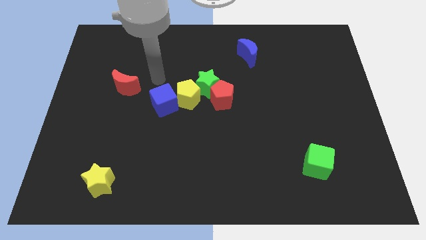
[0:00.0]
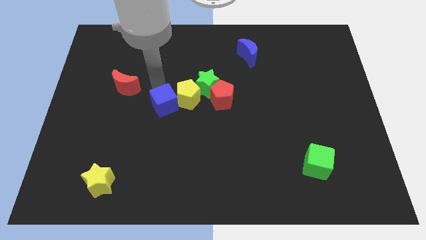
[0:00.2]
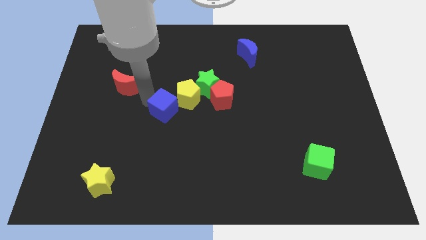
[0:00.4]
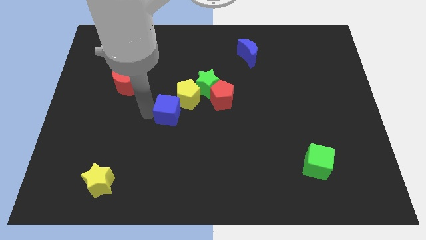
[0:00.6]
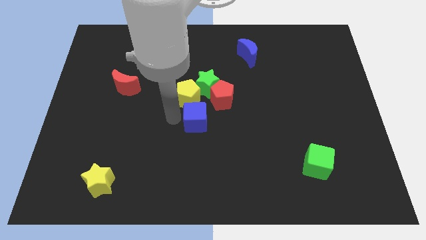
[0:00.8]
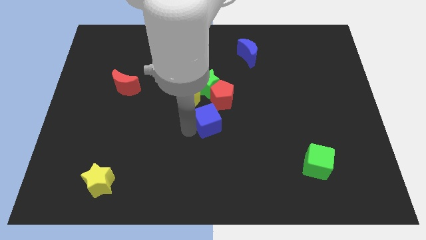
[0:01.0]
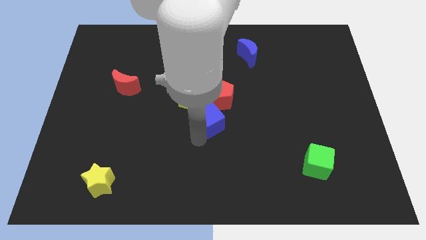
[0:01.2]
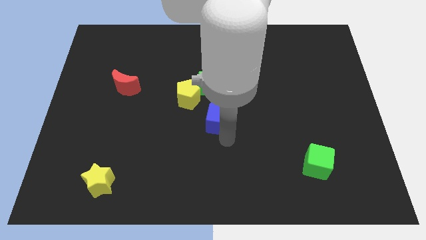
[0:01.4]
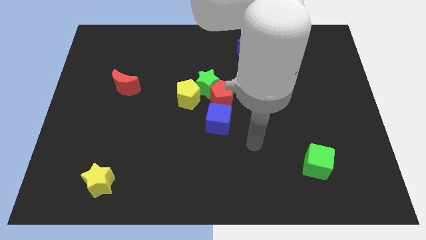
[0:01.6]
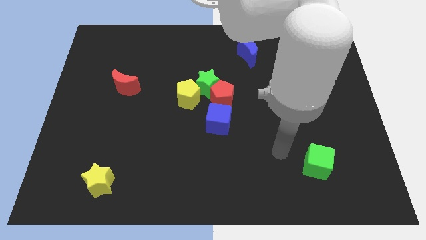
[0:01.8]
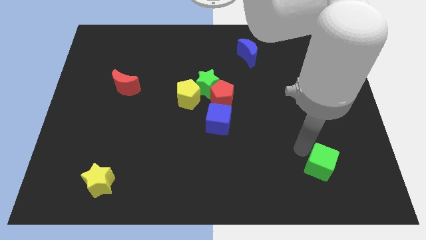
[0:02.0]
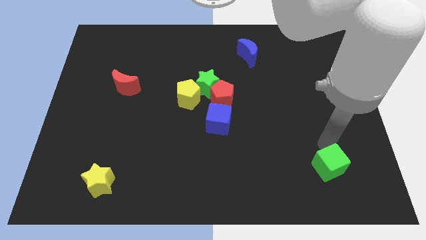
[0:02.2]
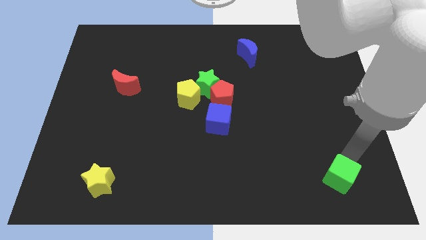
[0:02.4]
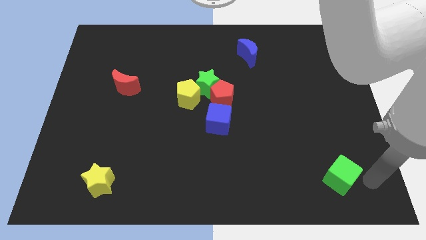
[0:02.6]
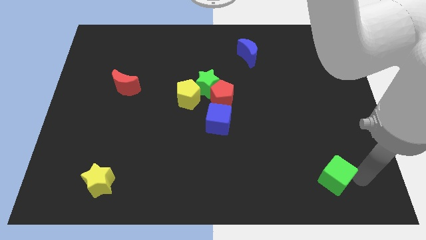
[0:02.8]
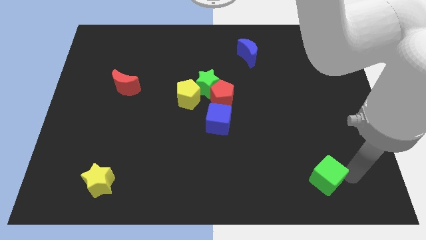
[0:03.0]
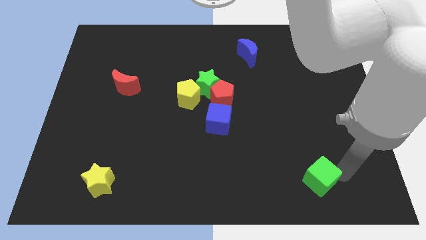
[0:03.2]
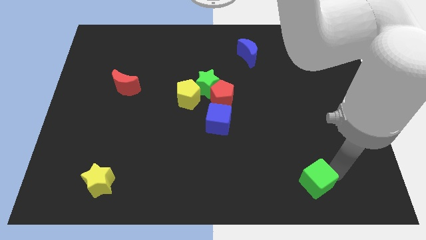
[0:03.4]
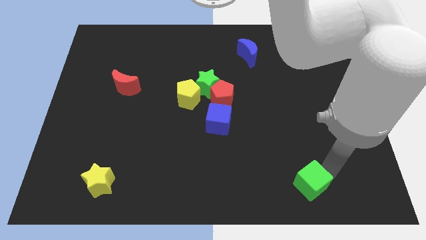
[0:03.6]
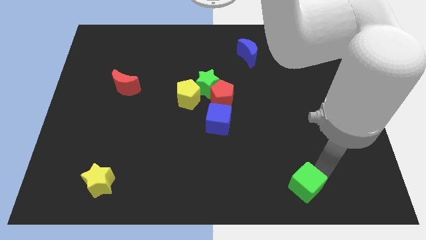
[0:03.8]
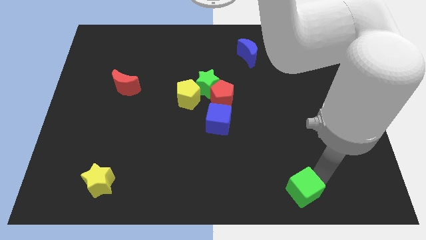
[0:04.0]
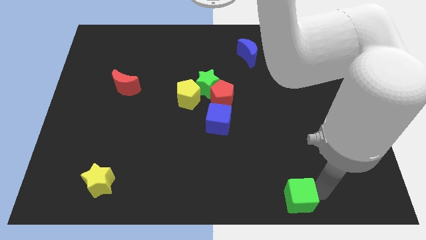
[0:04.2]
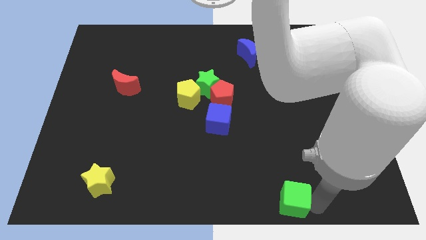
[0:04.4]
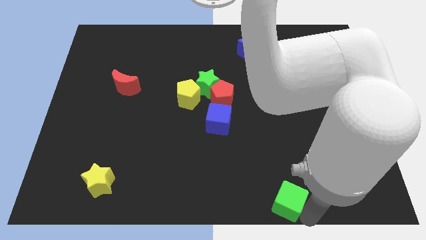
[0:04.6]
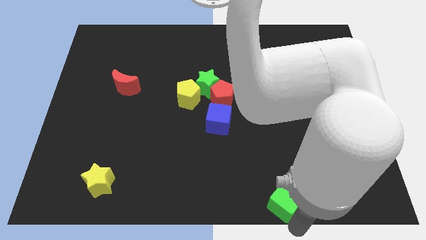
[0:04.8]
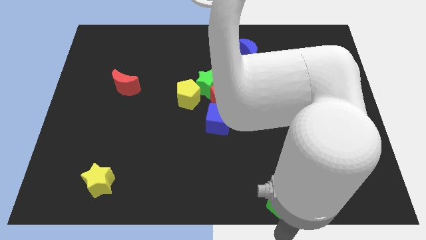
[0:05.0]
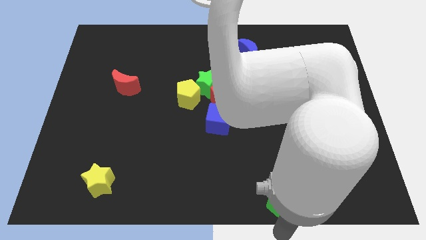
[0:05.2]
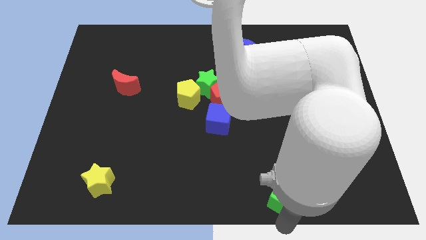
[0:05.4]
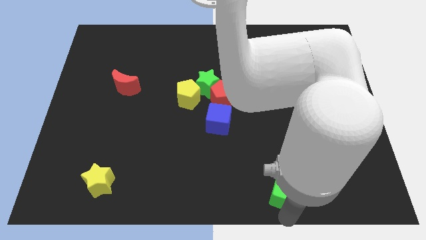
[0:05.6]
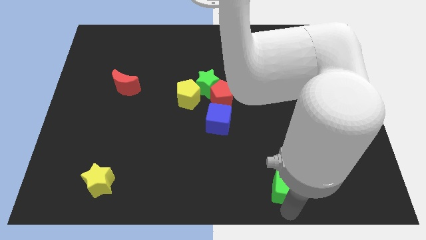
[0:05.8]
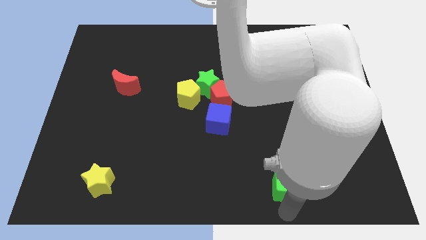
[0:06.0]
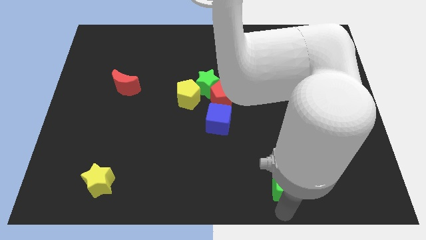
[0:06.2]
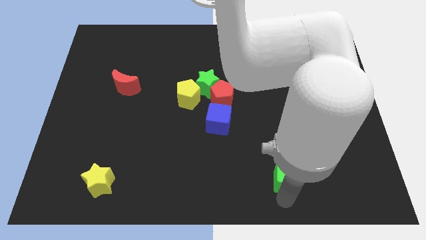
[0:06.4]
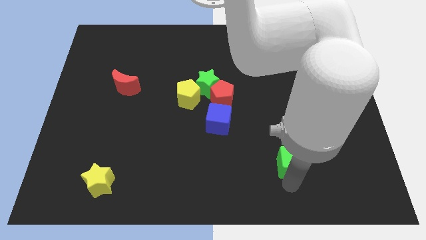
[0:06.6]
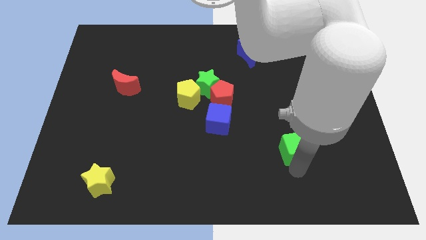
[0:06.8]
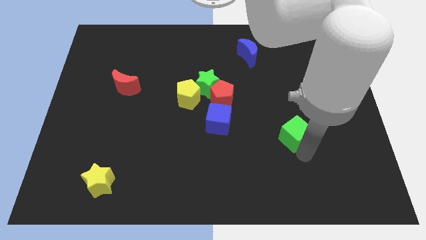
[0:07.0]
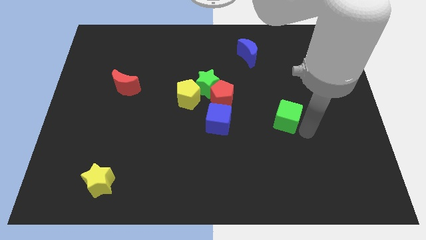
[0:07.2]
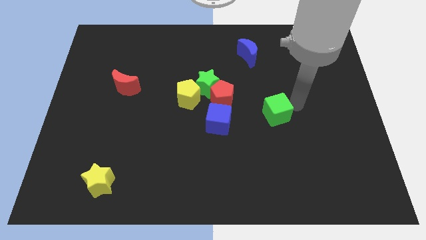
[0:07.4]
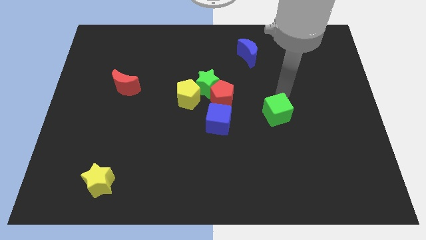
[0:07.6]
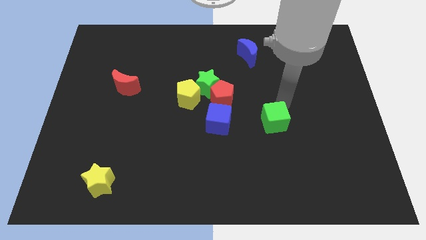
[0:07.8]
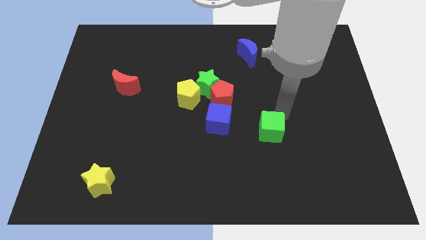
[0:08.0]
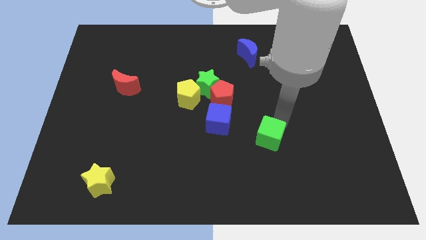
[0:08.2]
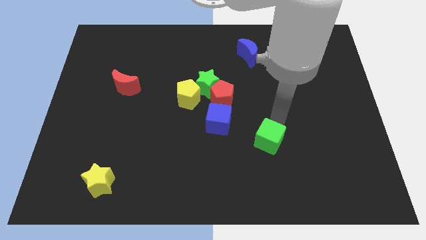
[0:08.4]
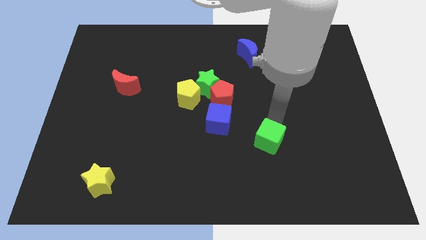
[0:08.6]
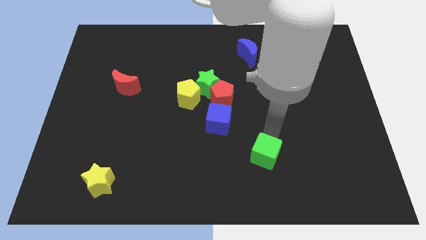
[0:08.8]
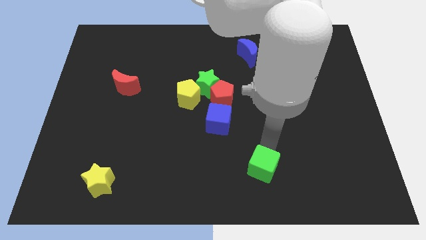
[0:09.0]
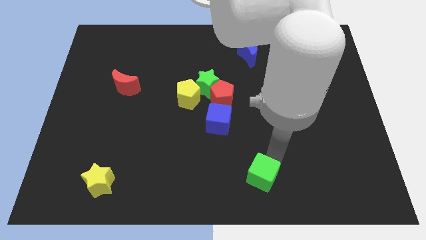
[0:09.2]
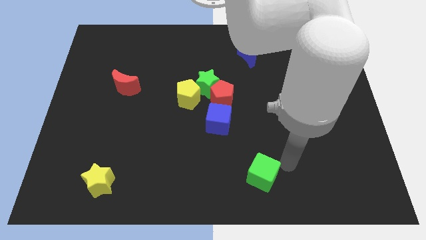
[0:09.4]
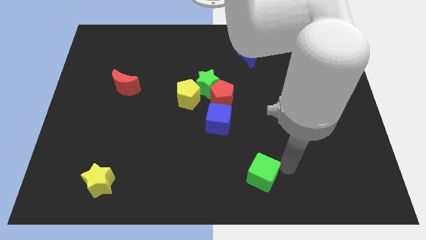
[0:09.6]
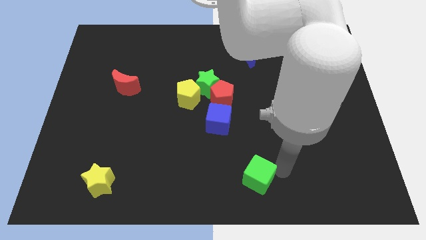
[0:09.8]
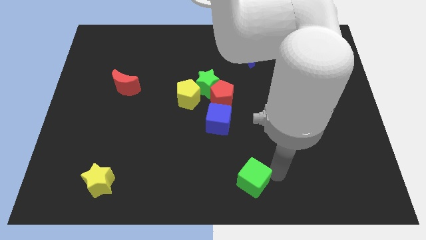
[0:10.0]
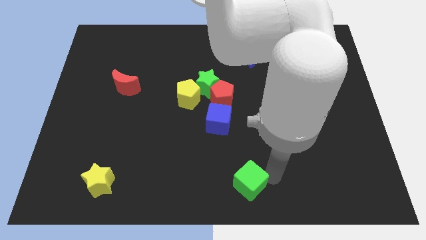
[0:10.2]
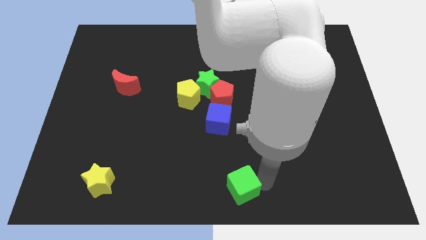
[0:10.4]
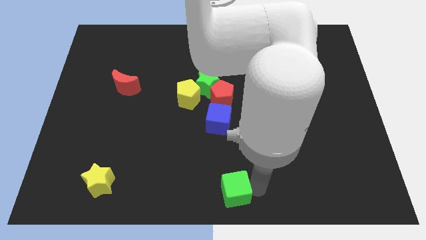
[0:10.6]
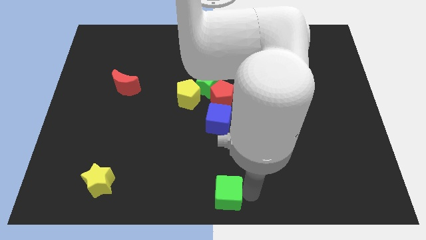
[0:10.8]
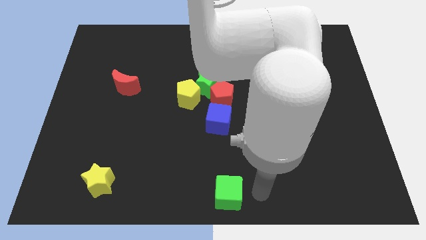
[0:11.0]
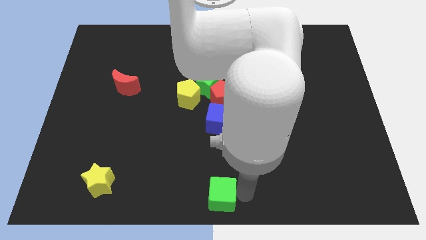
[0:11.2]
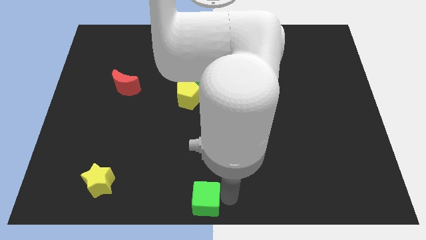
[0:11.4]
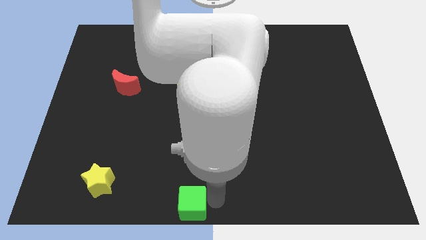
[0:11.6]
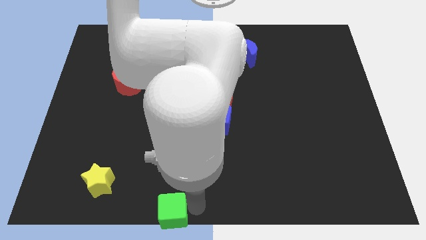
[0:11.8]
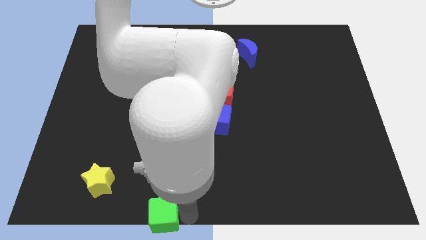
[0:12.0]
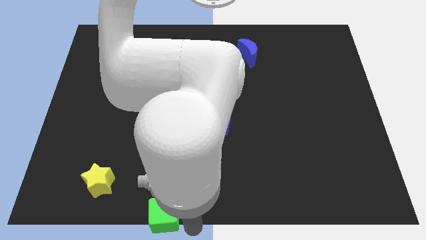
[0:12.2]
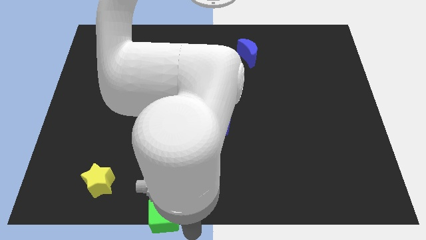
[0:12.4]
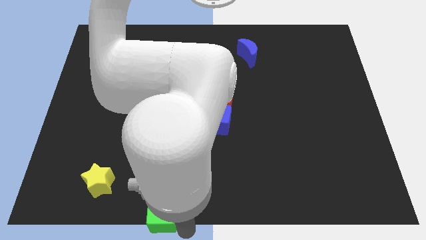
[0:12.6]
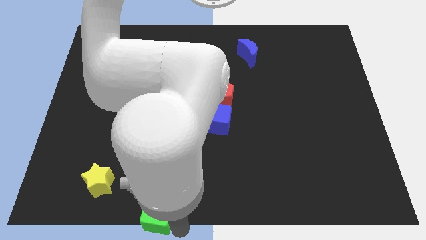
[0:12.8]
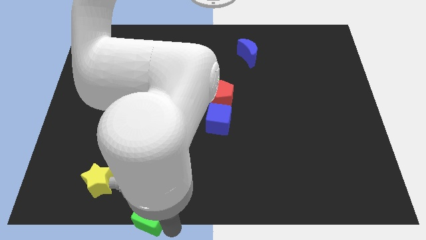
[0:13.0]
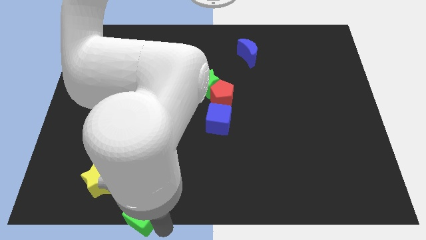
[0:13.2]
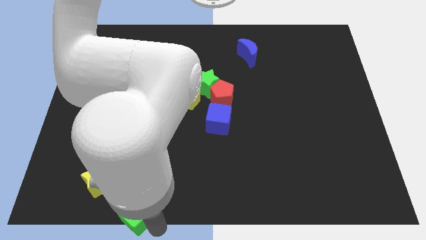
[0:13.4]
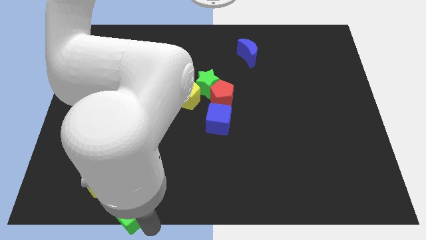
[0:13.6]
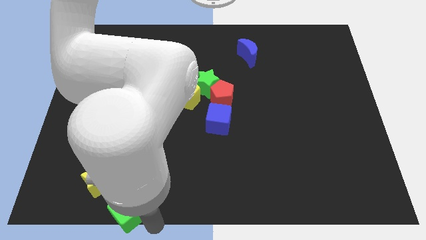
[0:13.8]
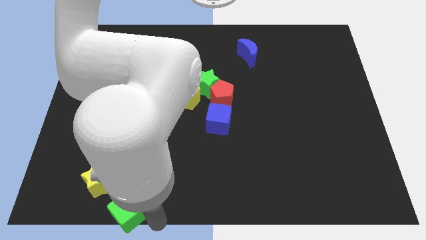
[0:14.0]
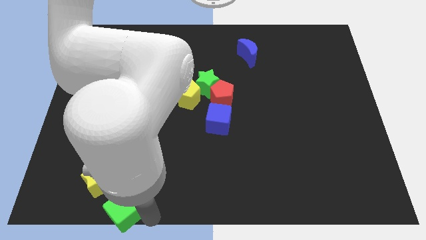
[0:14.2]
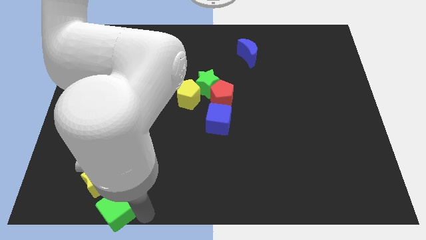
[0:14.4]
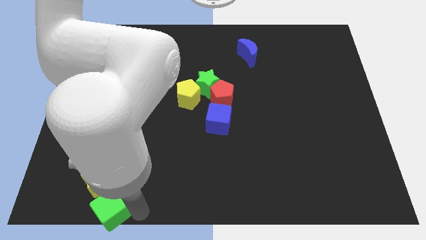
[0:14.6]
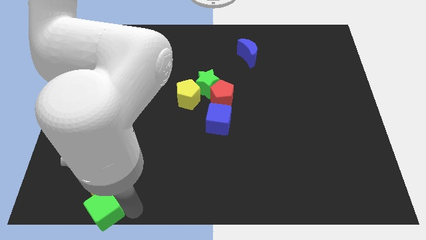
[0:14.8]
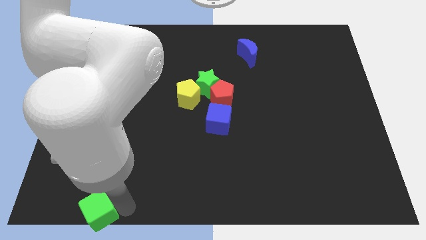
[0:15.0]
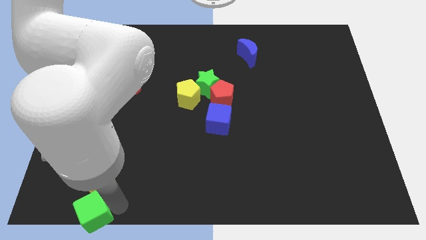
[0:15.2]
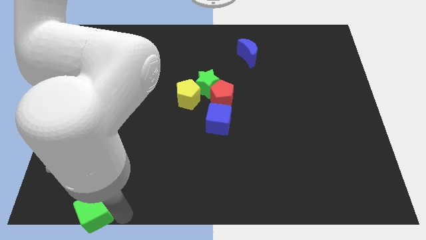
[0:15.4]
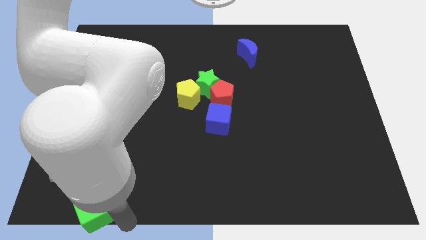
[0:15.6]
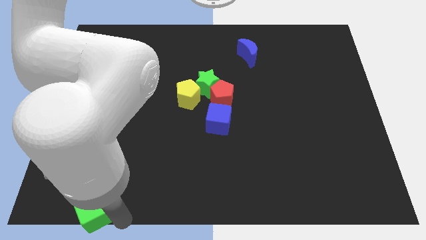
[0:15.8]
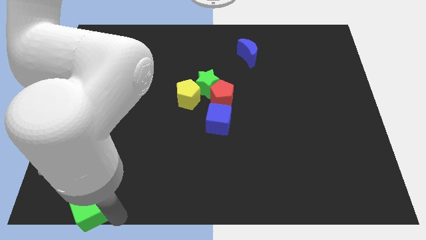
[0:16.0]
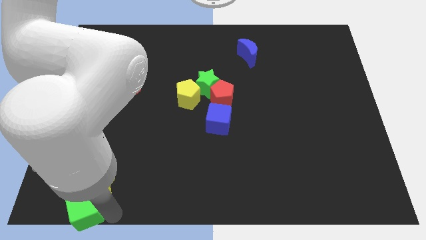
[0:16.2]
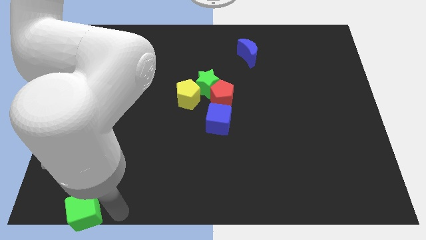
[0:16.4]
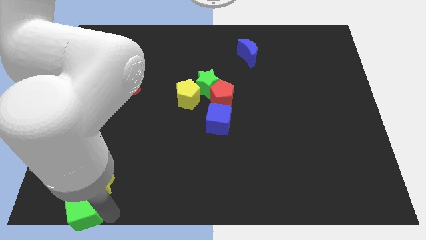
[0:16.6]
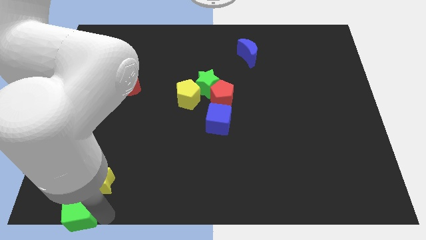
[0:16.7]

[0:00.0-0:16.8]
move the green cube to the bottom left corner
